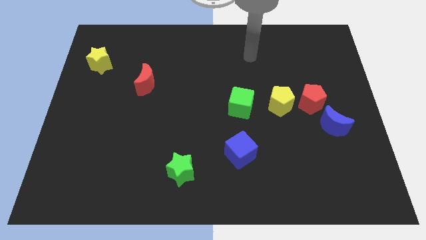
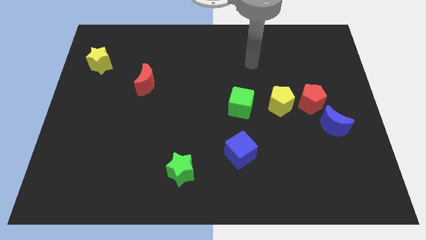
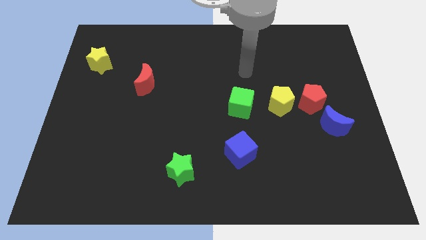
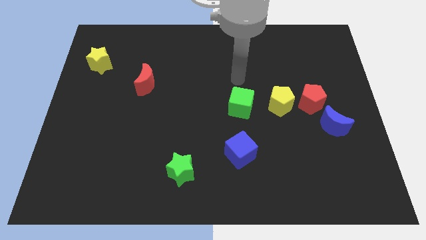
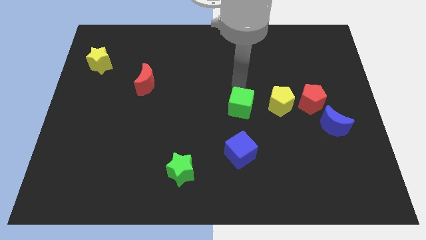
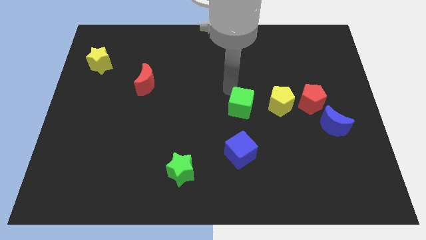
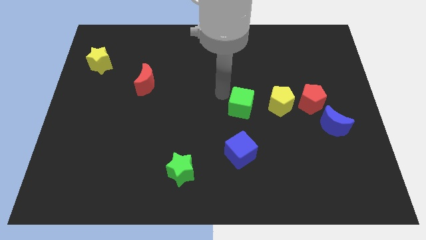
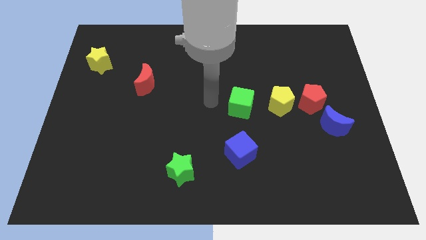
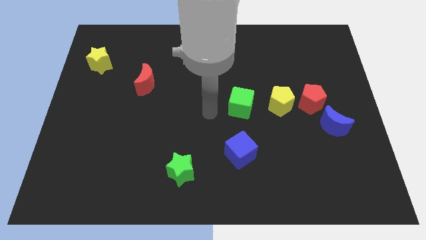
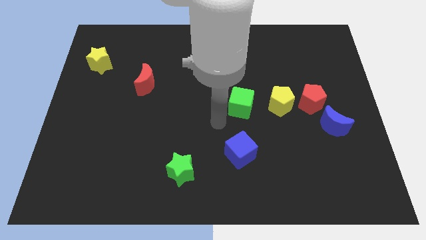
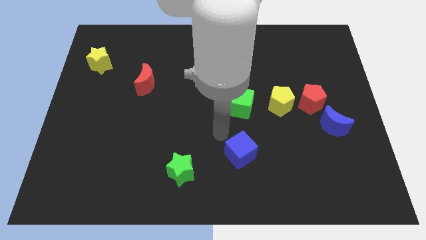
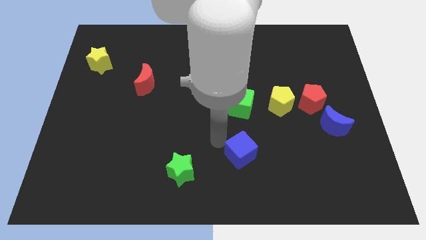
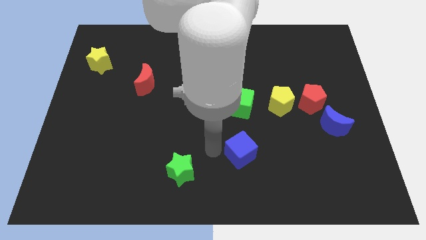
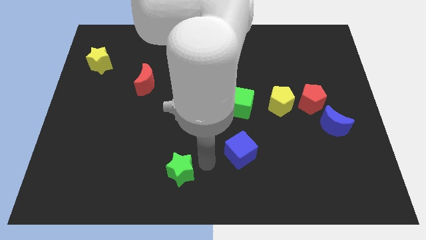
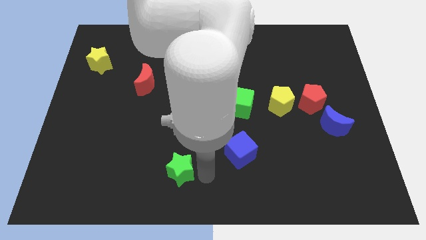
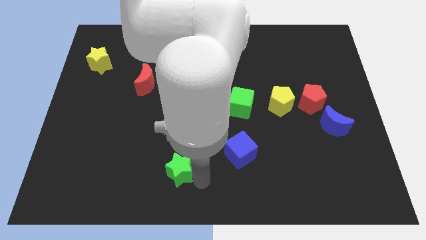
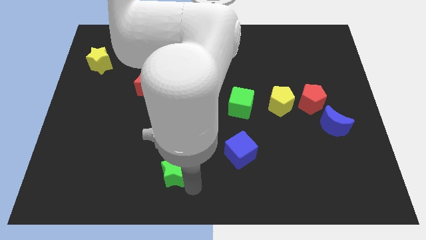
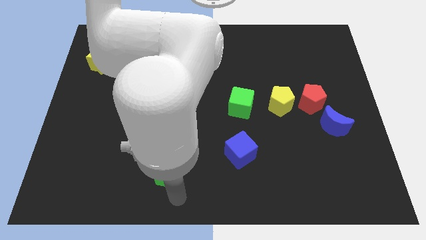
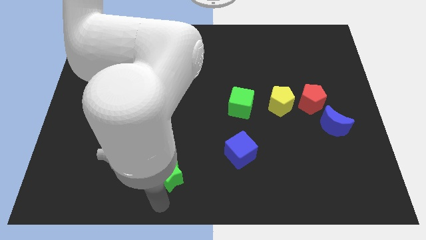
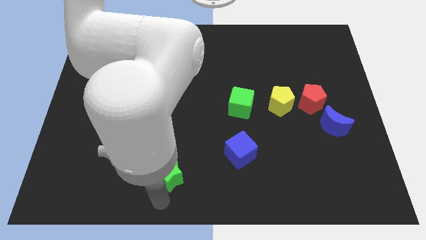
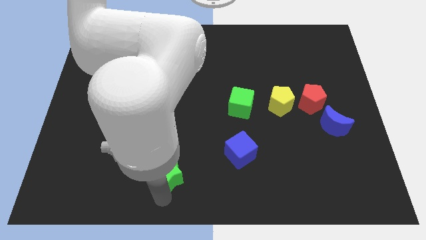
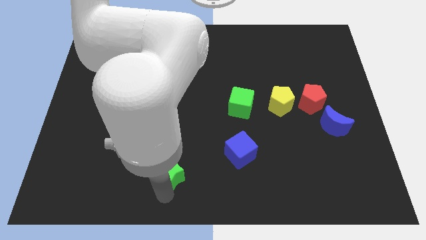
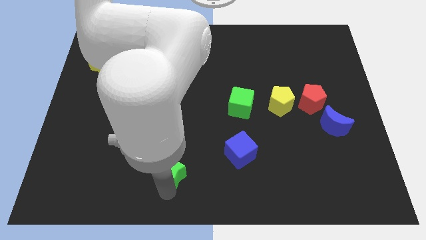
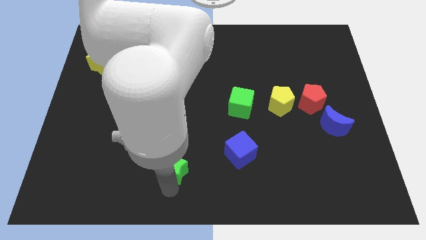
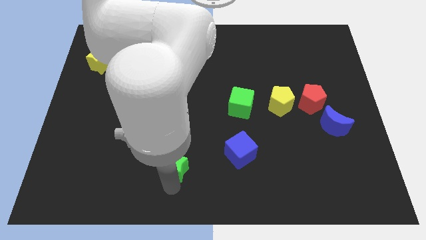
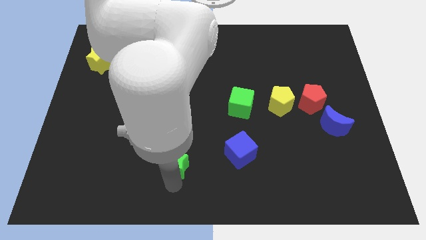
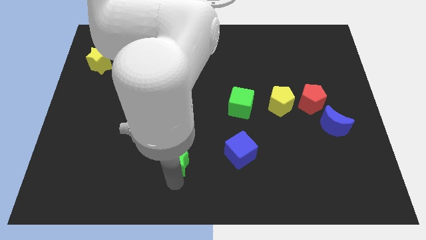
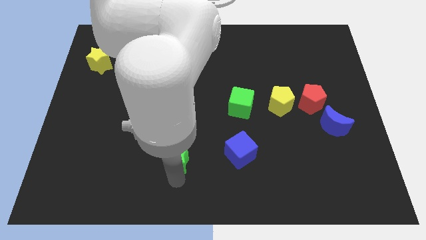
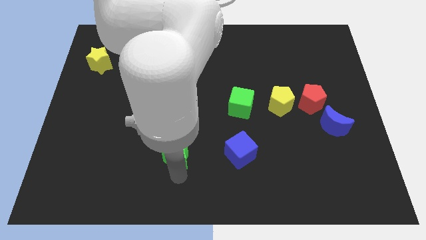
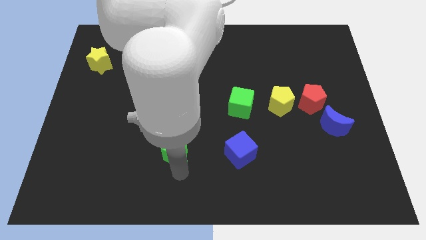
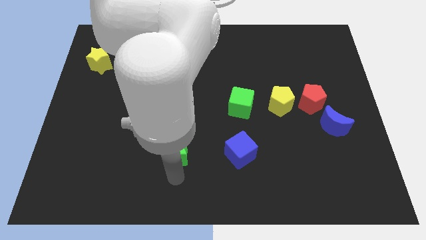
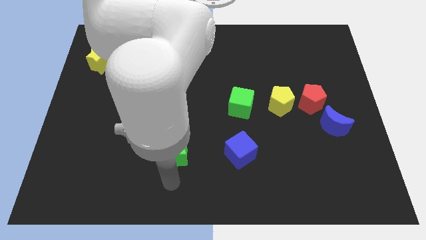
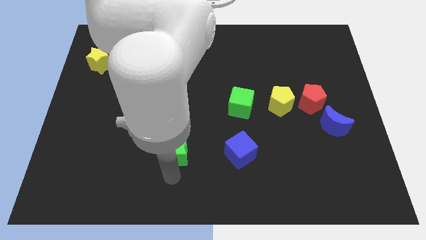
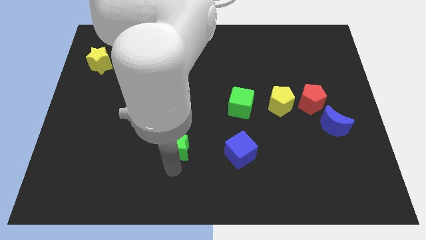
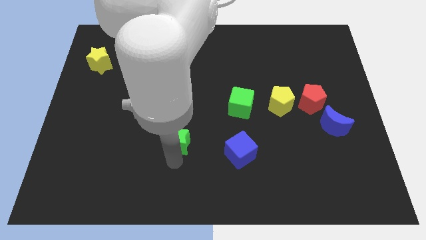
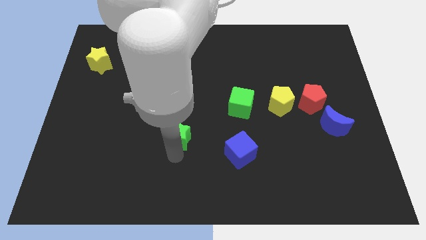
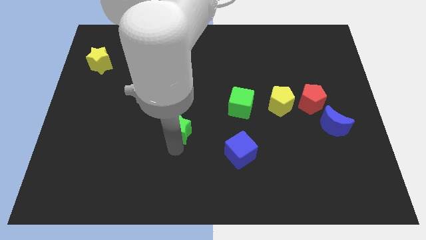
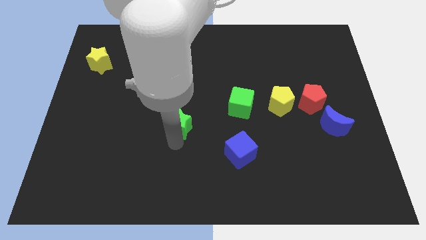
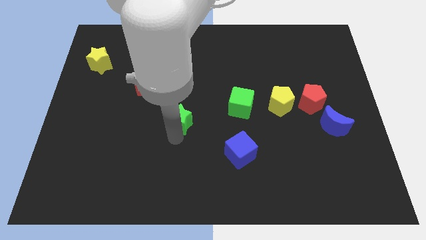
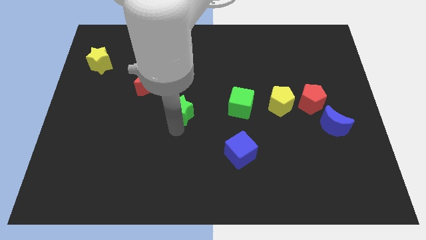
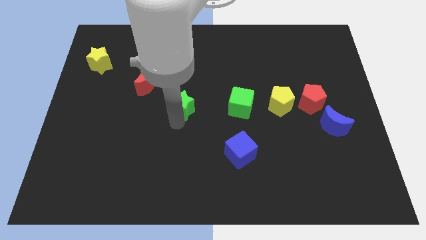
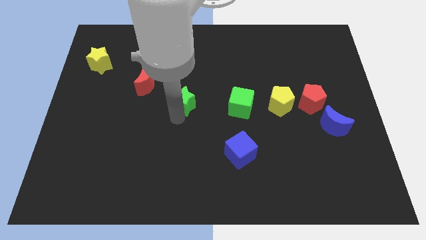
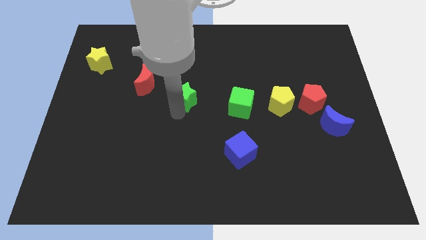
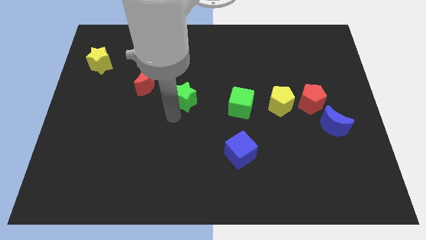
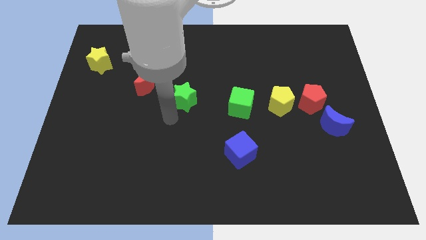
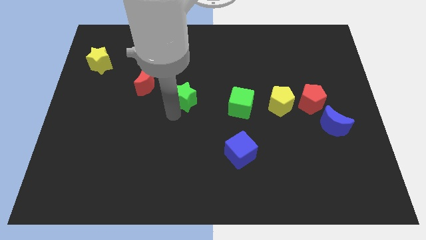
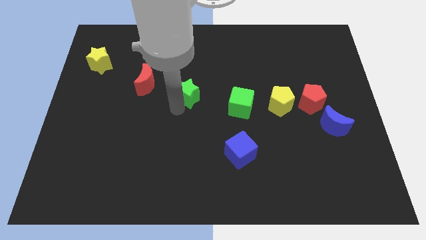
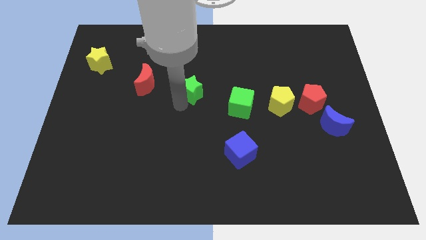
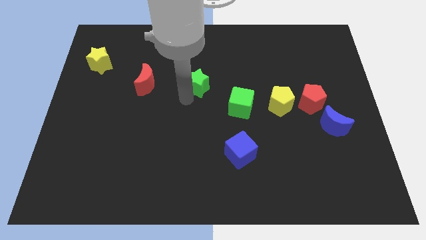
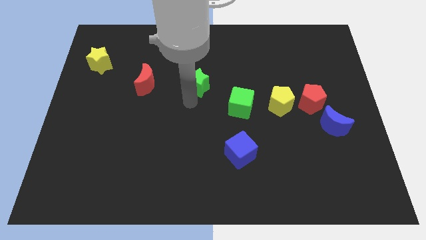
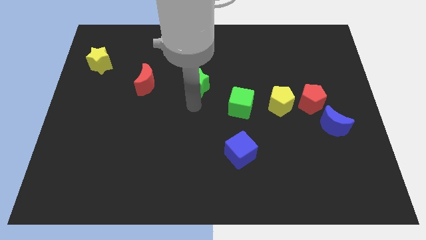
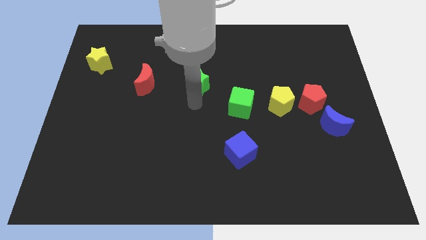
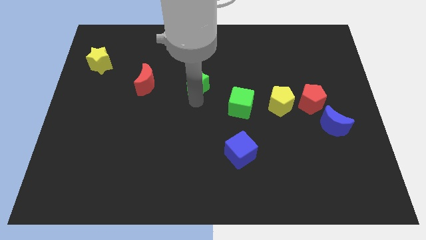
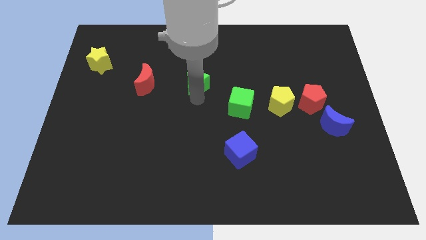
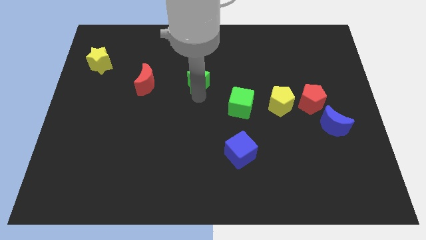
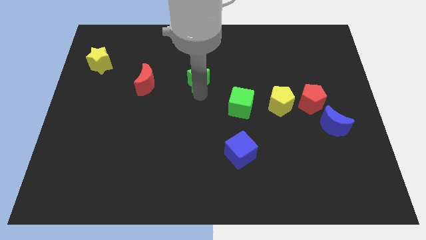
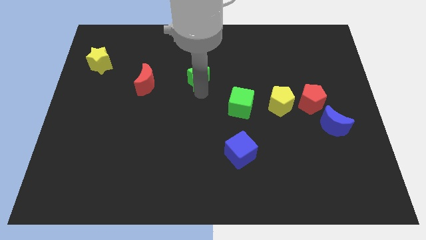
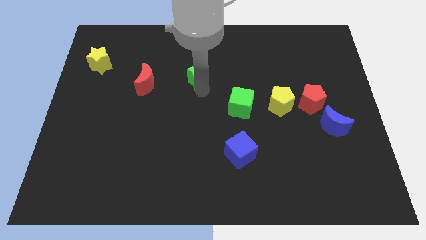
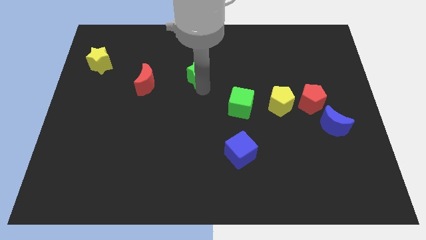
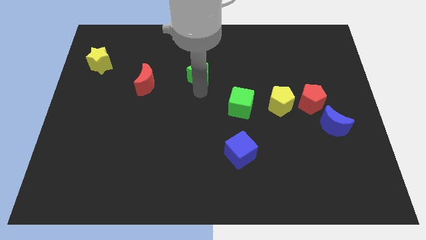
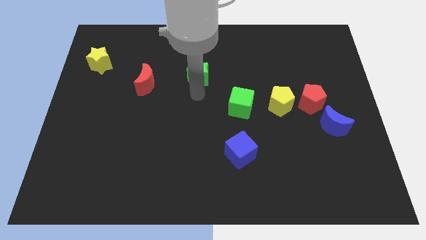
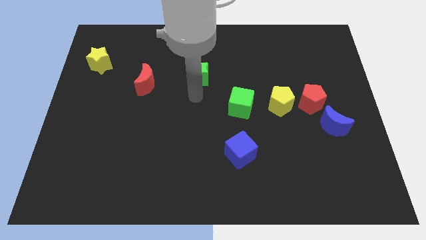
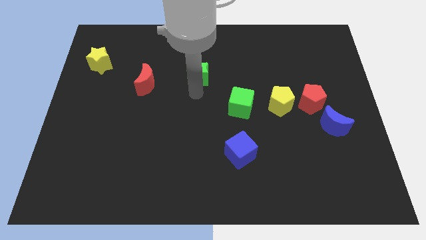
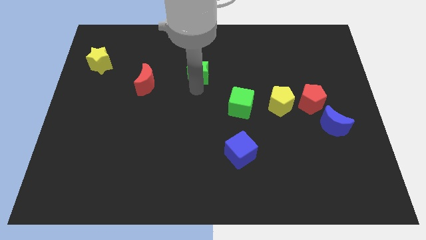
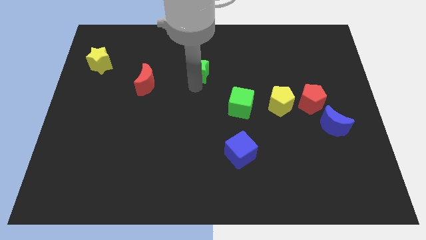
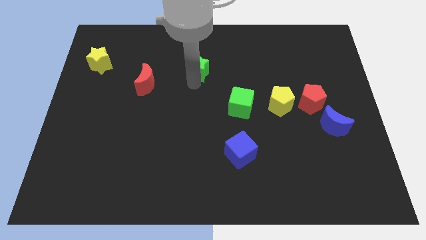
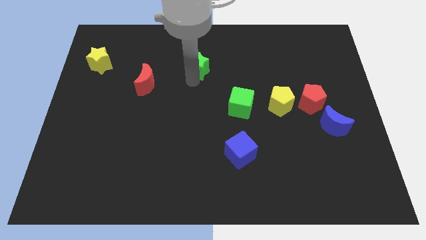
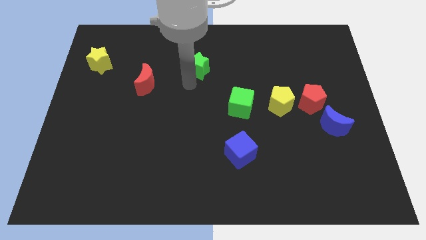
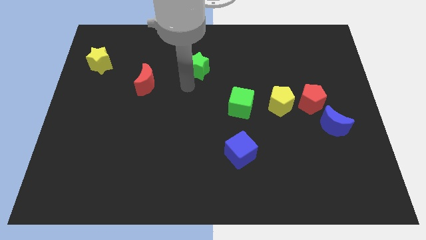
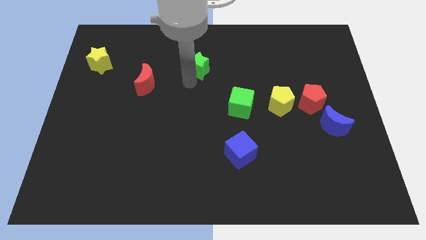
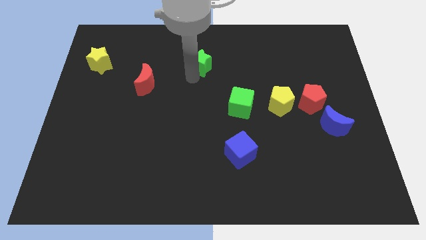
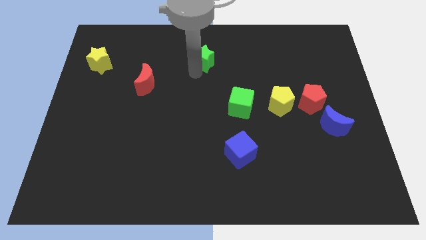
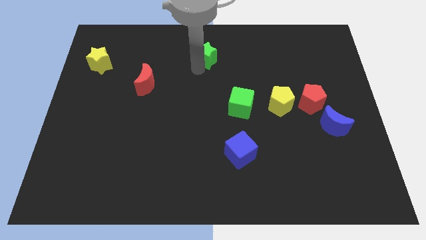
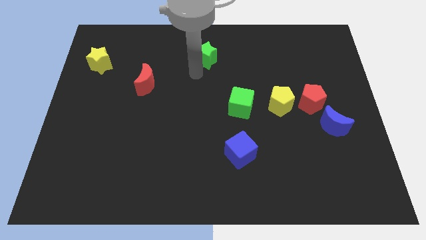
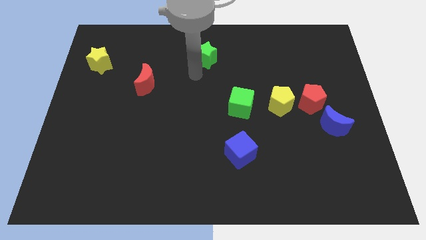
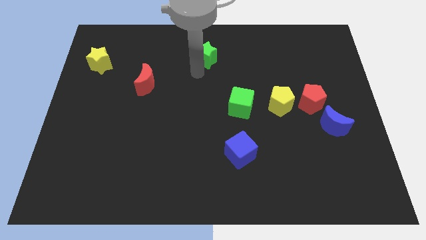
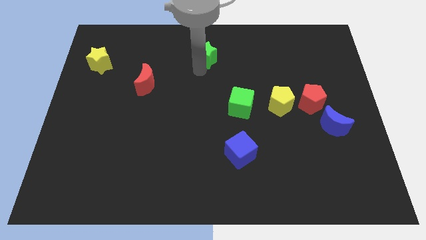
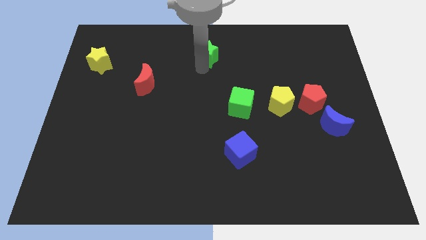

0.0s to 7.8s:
move the green star to the top
